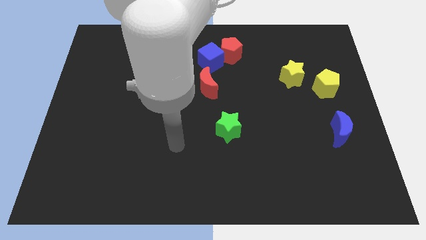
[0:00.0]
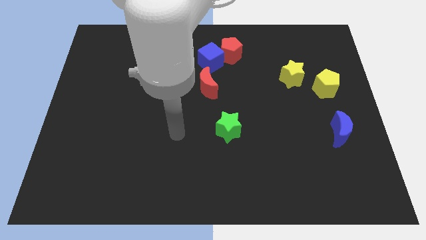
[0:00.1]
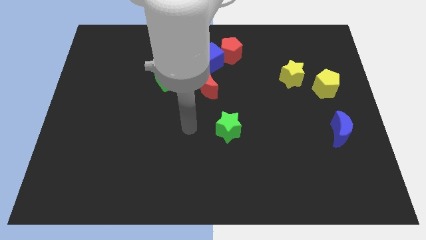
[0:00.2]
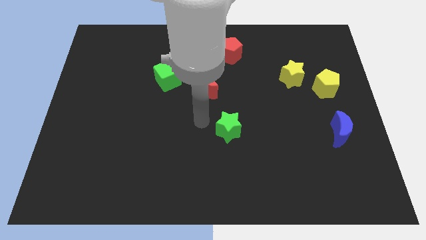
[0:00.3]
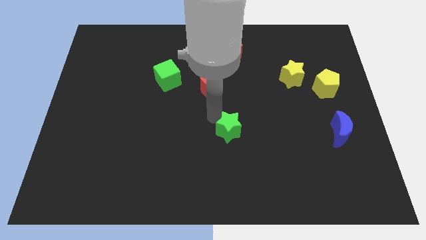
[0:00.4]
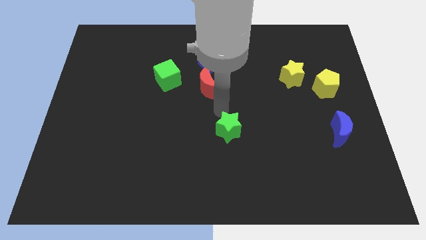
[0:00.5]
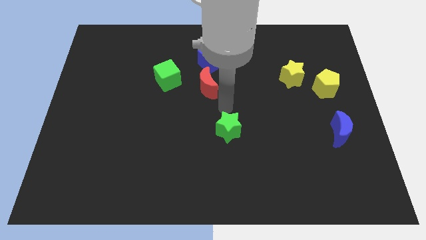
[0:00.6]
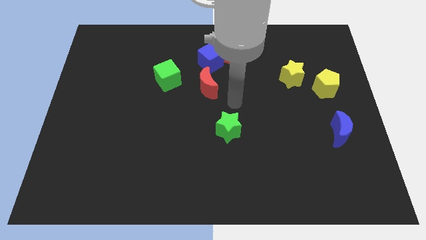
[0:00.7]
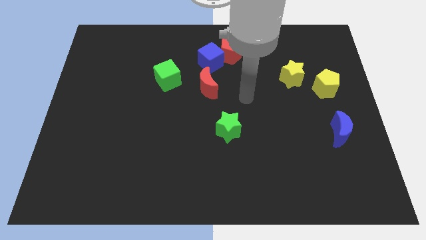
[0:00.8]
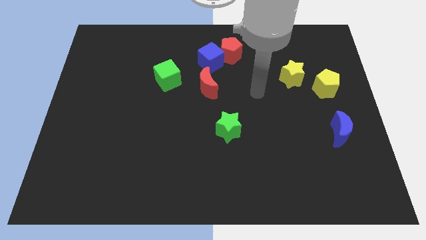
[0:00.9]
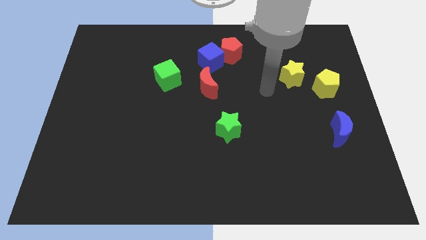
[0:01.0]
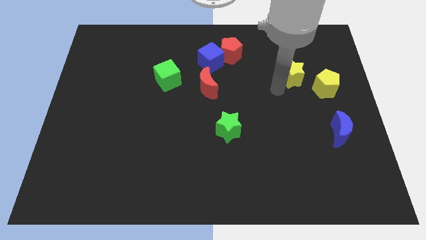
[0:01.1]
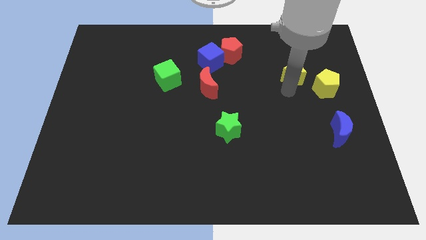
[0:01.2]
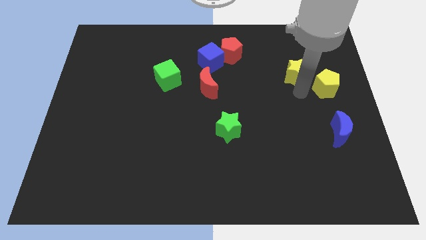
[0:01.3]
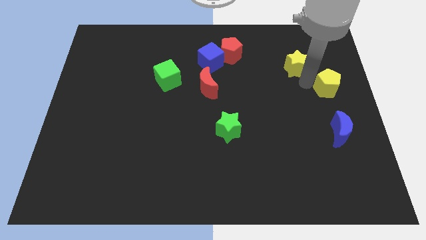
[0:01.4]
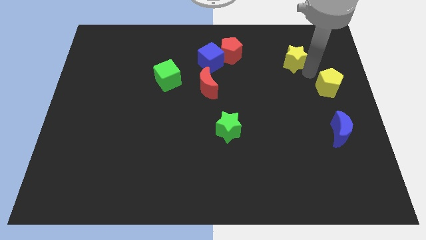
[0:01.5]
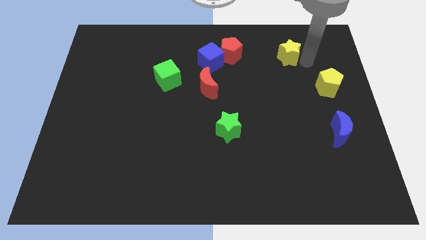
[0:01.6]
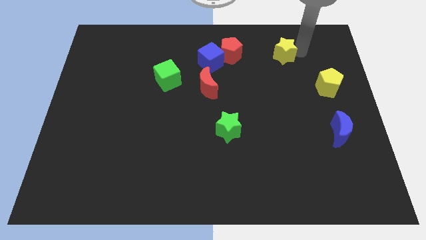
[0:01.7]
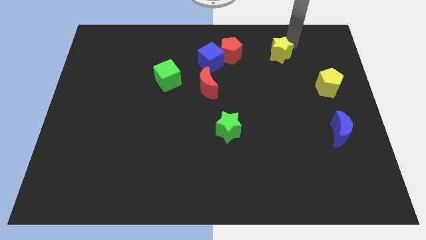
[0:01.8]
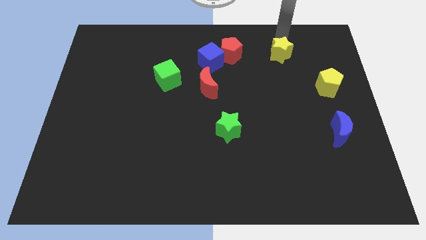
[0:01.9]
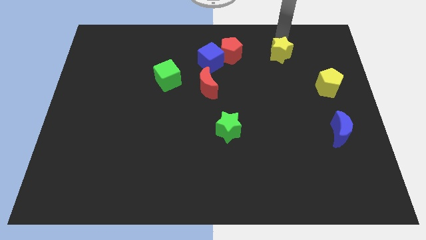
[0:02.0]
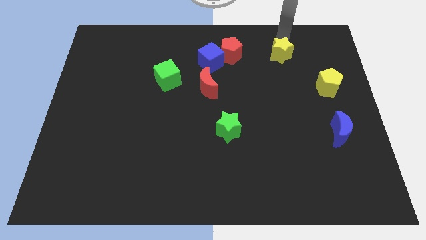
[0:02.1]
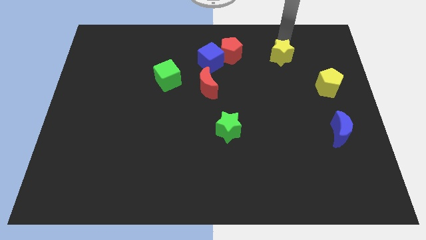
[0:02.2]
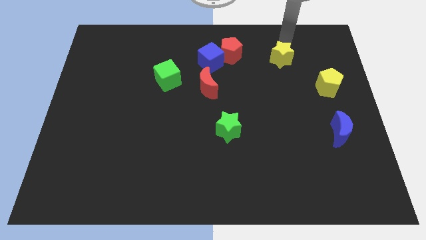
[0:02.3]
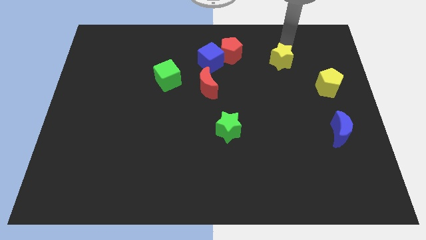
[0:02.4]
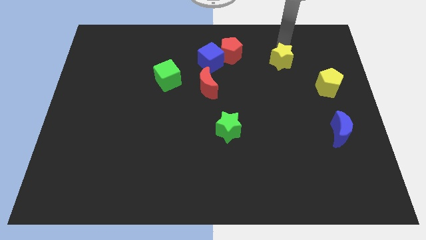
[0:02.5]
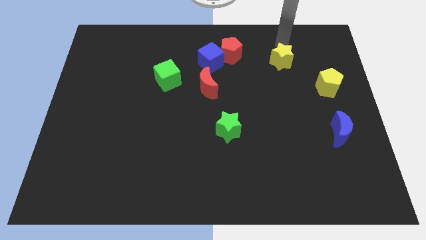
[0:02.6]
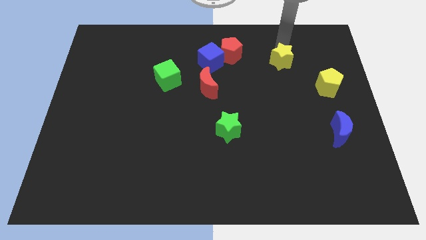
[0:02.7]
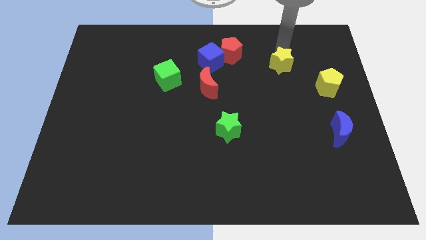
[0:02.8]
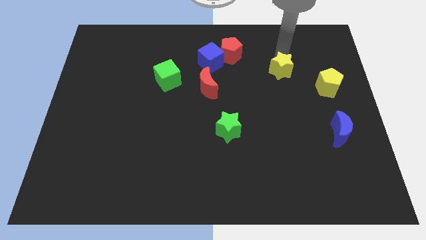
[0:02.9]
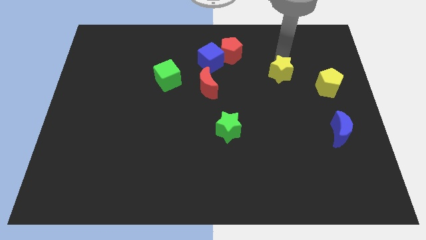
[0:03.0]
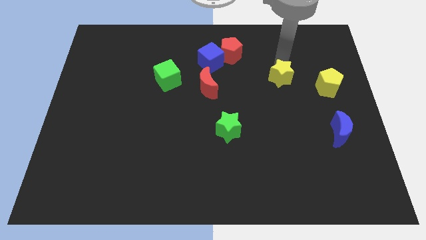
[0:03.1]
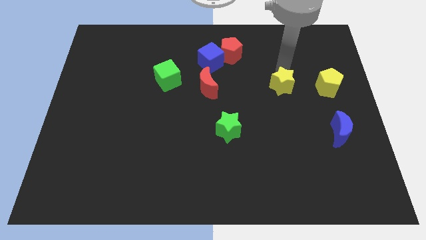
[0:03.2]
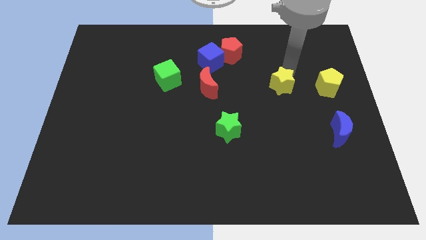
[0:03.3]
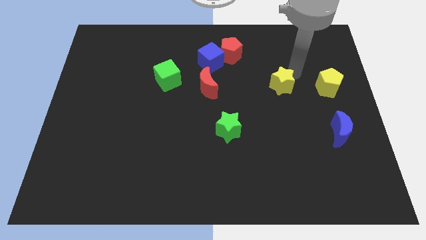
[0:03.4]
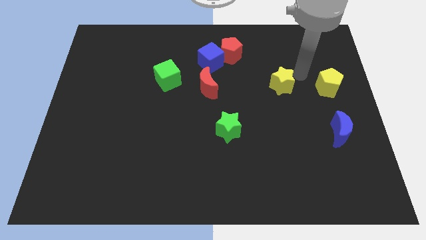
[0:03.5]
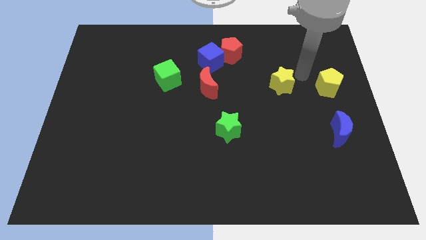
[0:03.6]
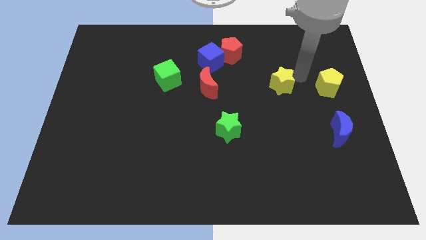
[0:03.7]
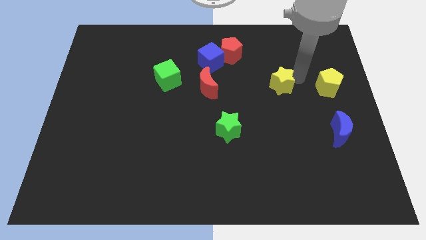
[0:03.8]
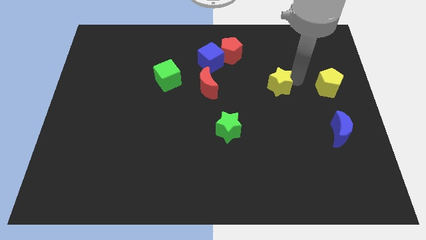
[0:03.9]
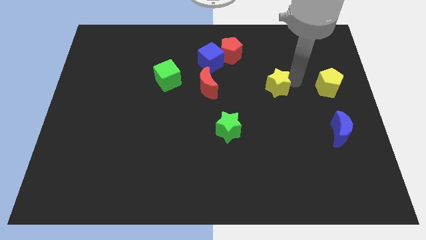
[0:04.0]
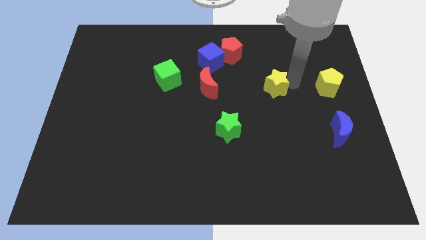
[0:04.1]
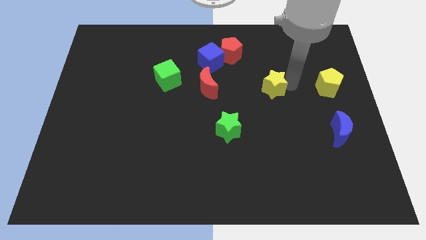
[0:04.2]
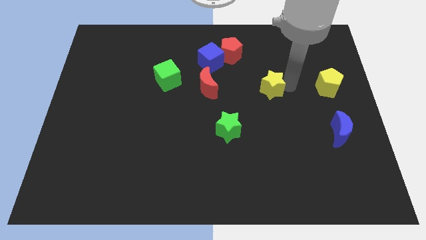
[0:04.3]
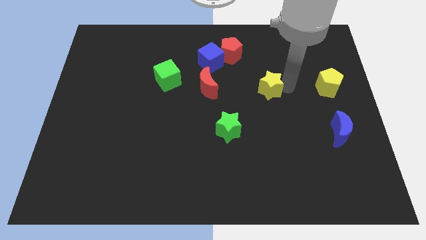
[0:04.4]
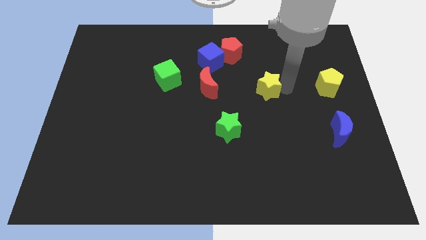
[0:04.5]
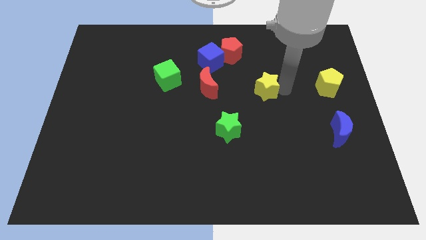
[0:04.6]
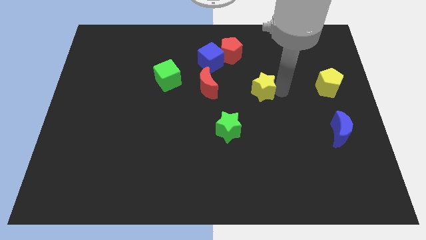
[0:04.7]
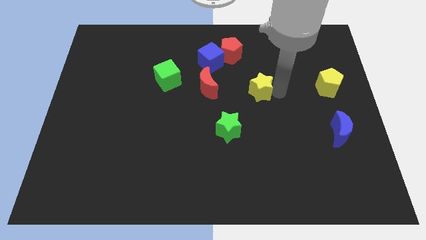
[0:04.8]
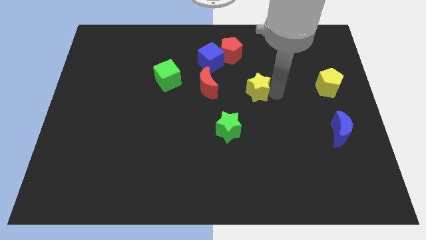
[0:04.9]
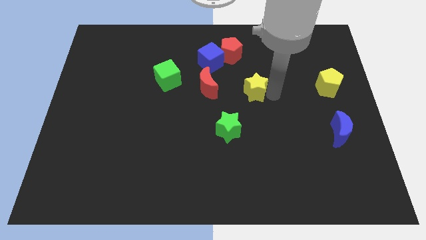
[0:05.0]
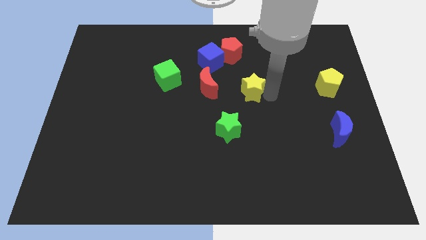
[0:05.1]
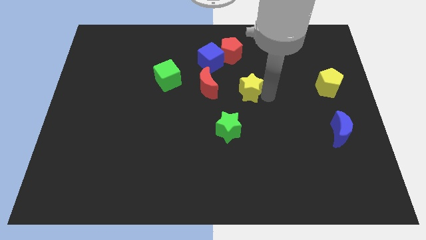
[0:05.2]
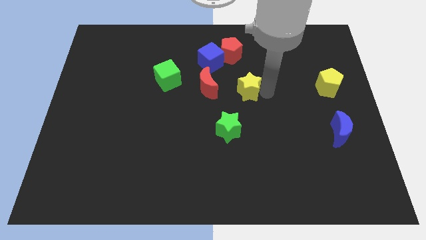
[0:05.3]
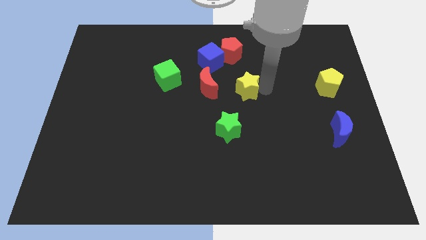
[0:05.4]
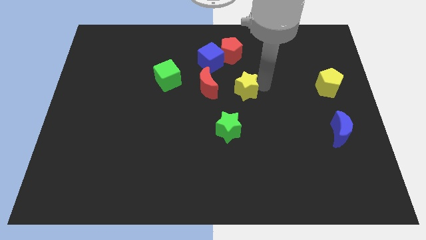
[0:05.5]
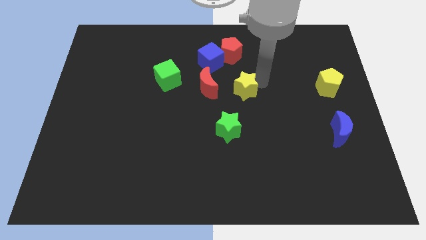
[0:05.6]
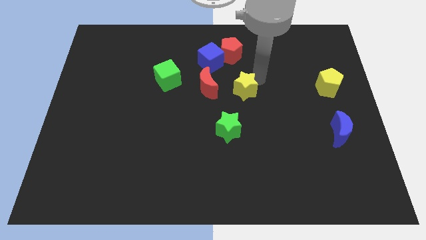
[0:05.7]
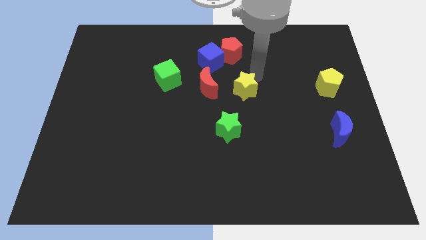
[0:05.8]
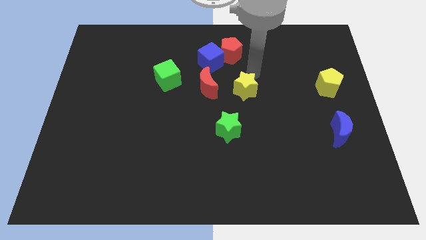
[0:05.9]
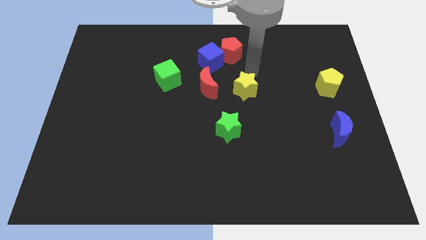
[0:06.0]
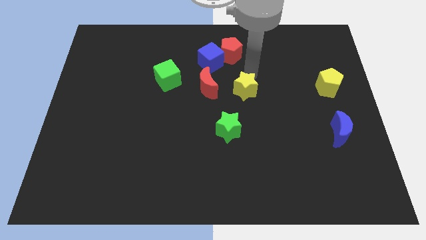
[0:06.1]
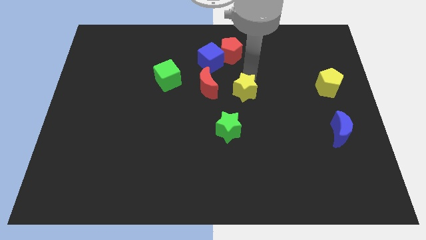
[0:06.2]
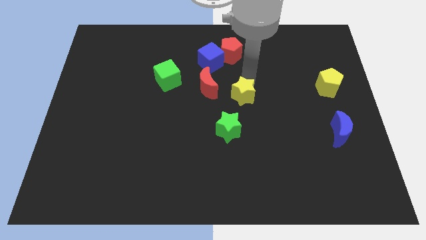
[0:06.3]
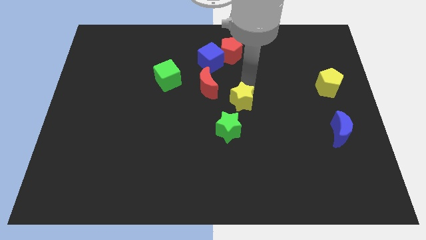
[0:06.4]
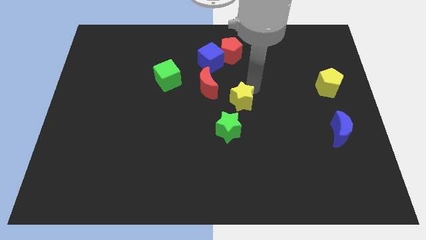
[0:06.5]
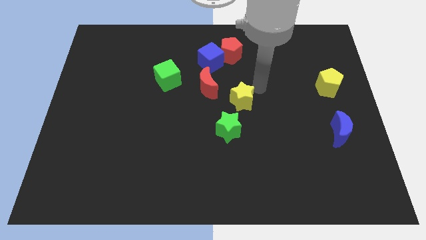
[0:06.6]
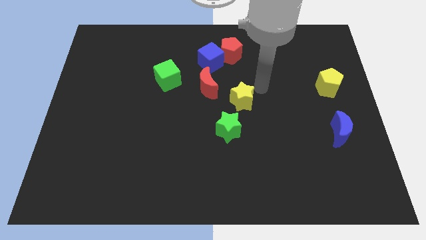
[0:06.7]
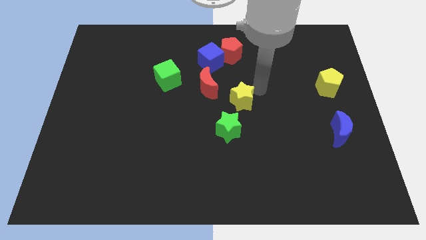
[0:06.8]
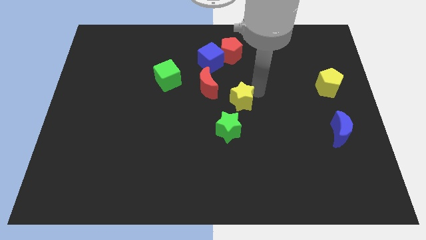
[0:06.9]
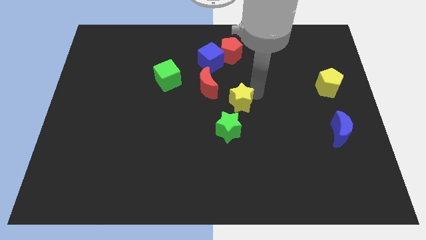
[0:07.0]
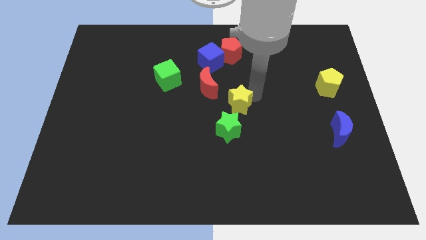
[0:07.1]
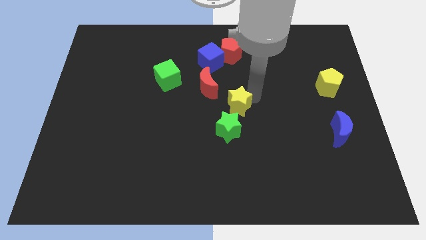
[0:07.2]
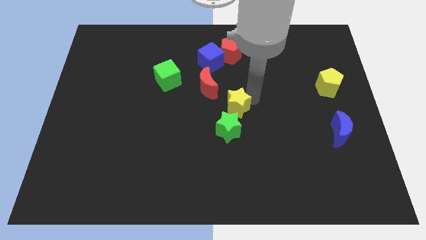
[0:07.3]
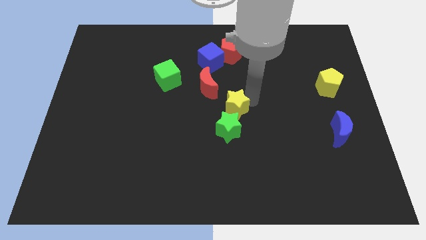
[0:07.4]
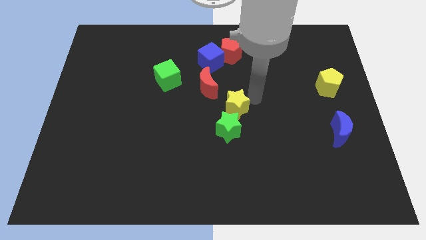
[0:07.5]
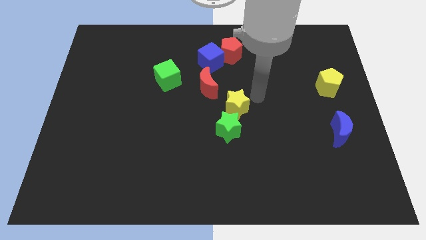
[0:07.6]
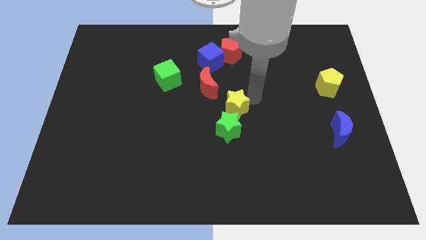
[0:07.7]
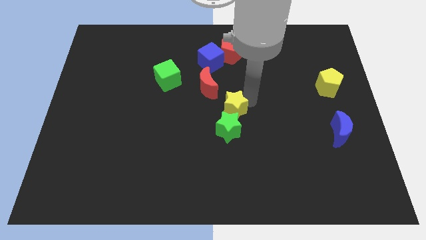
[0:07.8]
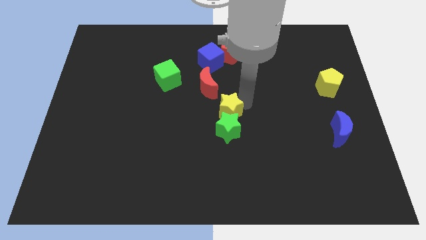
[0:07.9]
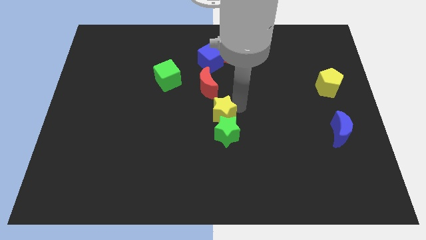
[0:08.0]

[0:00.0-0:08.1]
put the yellow star below the red moon
